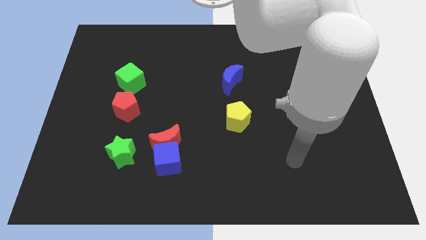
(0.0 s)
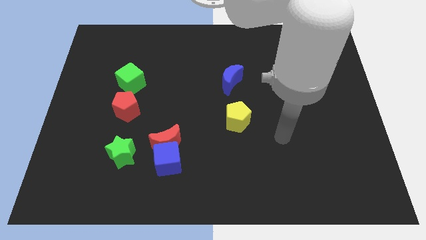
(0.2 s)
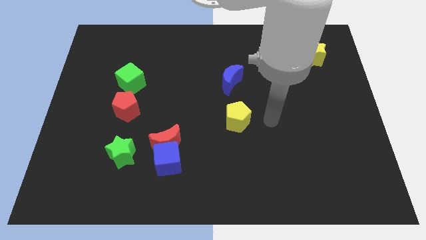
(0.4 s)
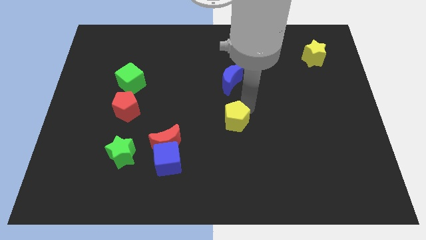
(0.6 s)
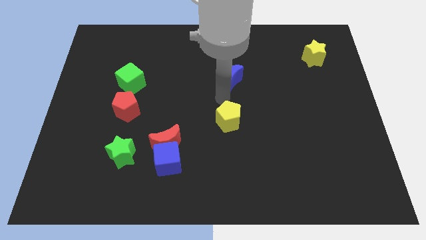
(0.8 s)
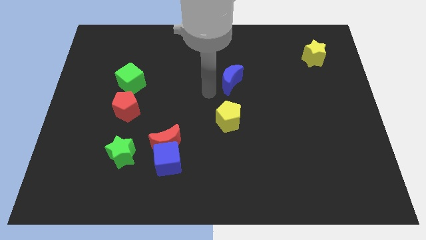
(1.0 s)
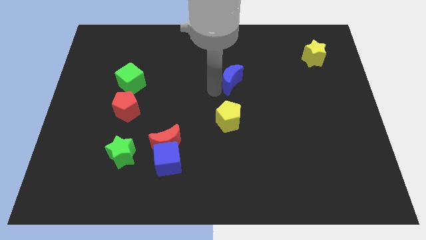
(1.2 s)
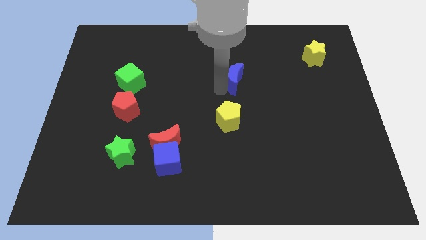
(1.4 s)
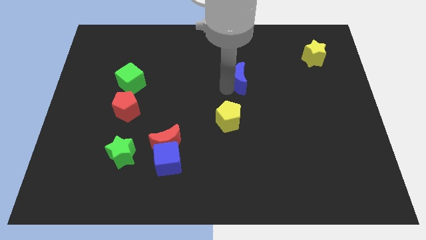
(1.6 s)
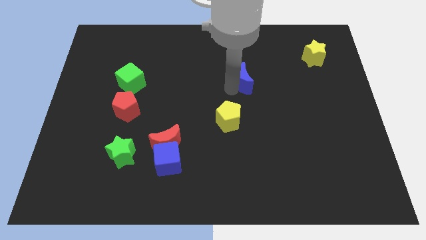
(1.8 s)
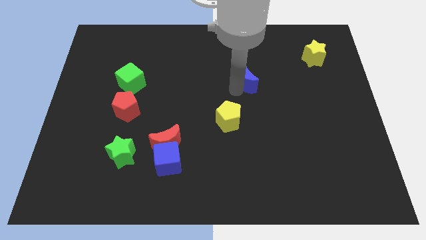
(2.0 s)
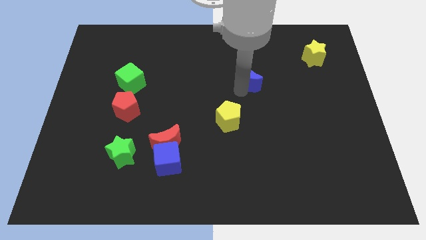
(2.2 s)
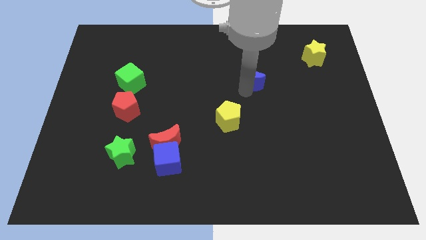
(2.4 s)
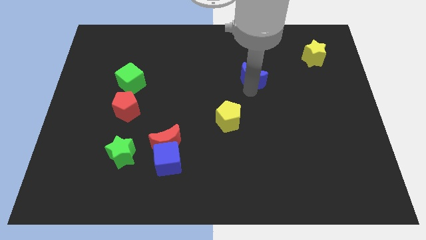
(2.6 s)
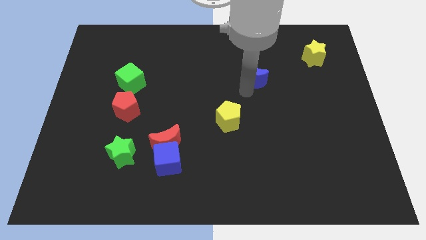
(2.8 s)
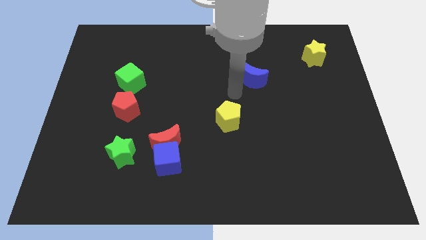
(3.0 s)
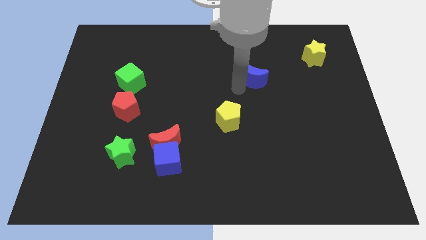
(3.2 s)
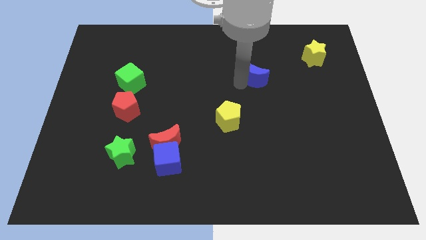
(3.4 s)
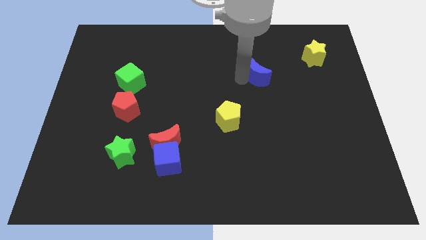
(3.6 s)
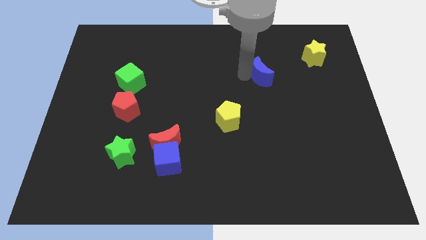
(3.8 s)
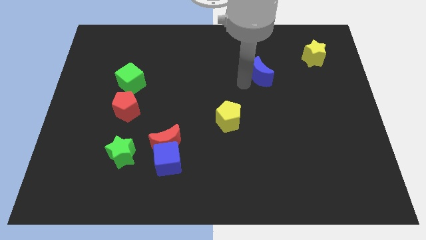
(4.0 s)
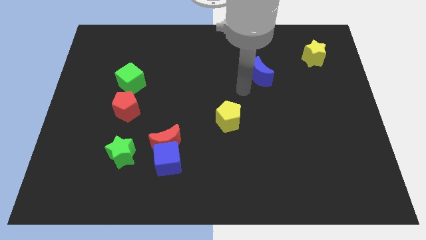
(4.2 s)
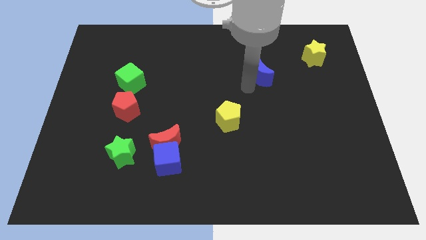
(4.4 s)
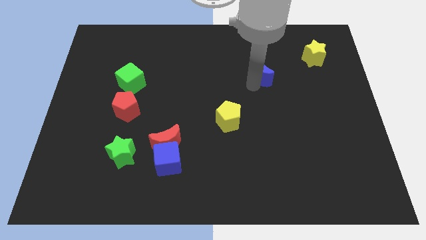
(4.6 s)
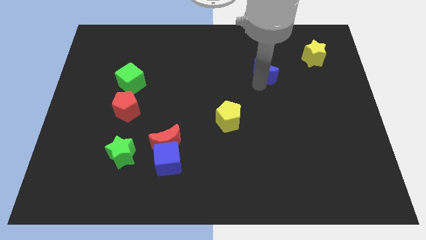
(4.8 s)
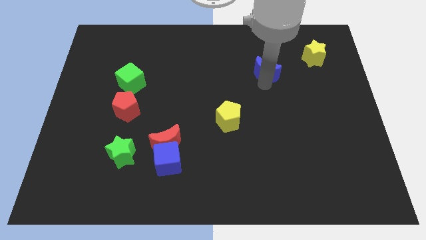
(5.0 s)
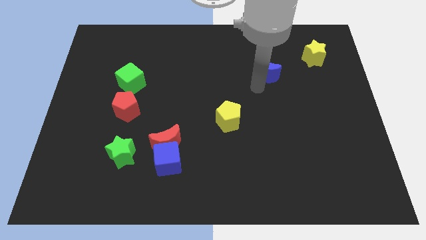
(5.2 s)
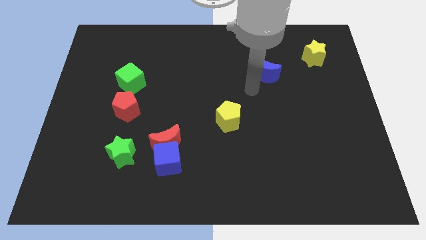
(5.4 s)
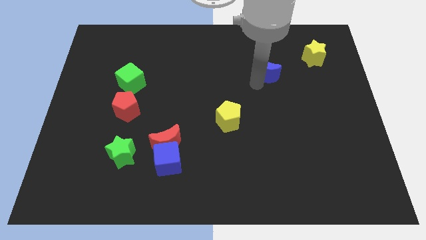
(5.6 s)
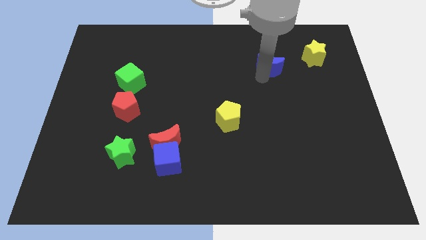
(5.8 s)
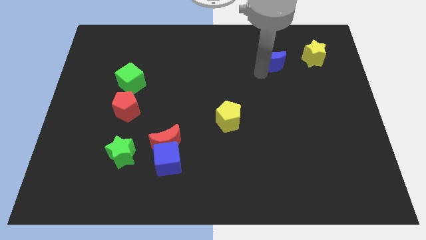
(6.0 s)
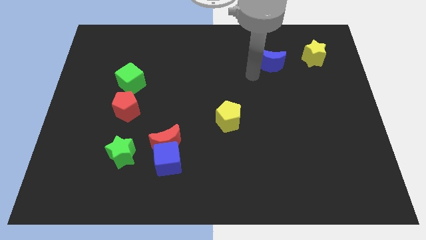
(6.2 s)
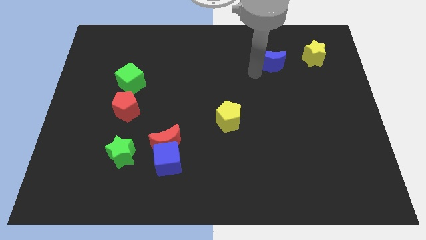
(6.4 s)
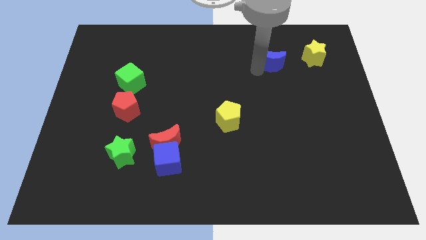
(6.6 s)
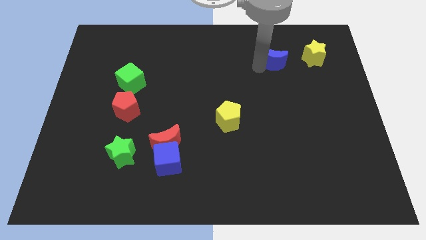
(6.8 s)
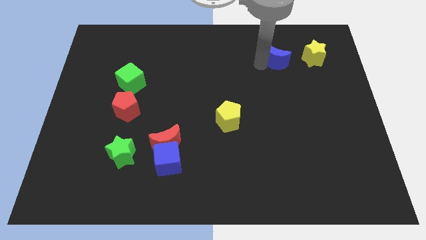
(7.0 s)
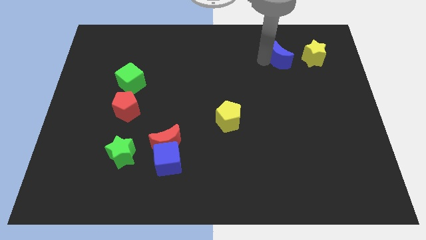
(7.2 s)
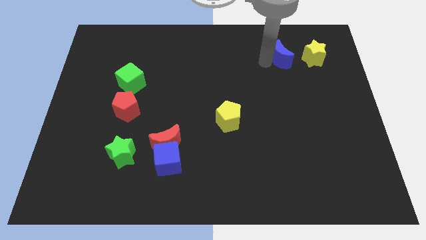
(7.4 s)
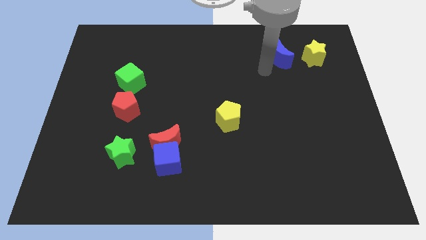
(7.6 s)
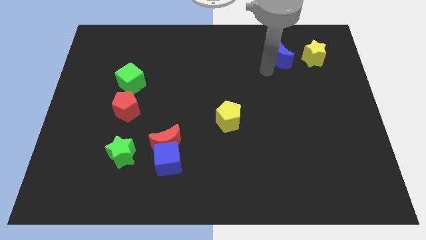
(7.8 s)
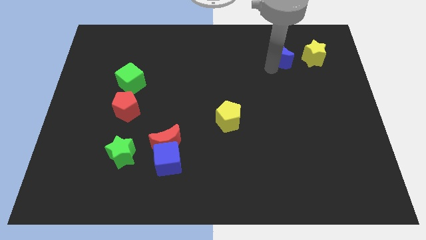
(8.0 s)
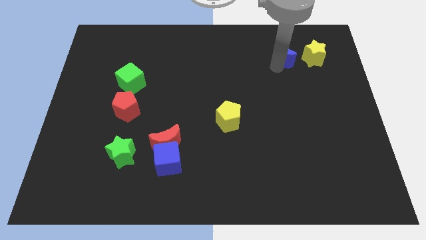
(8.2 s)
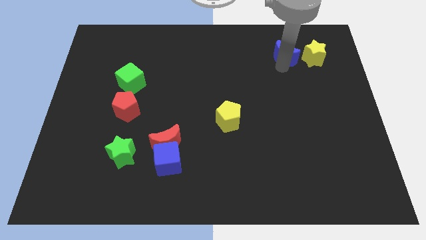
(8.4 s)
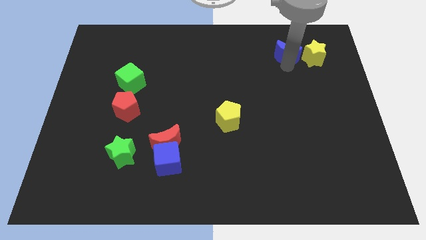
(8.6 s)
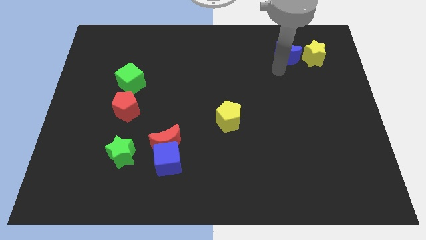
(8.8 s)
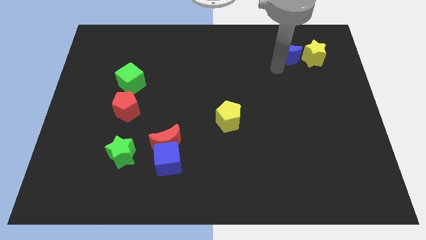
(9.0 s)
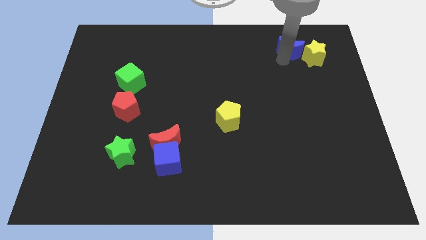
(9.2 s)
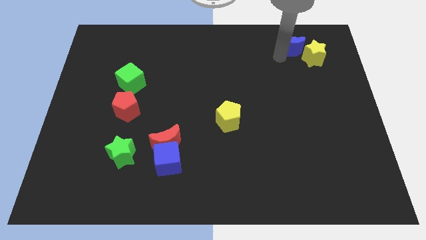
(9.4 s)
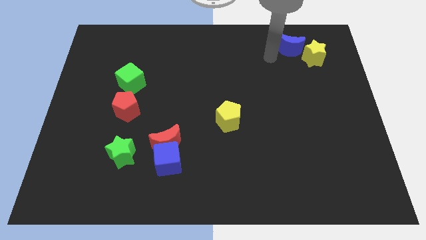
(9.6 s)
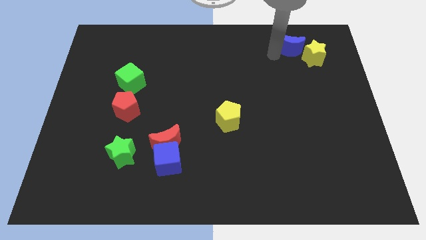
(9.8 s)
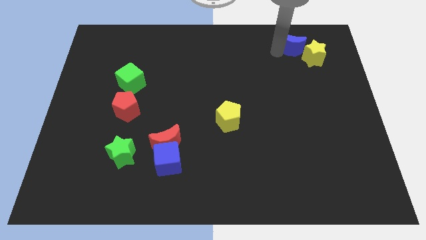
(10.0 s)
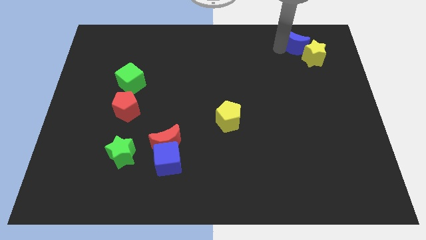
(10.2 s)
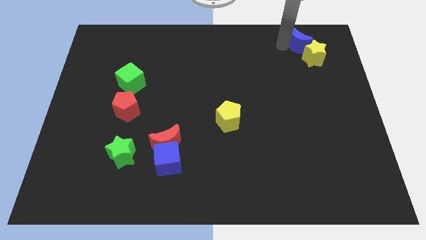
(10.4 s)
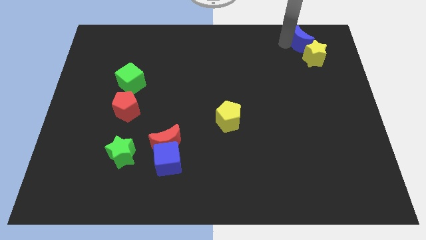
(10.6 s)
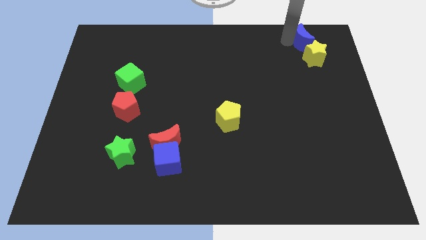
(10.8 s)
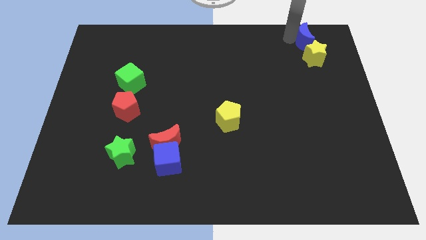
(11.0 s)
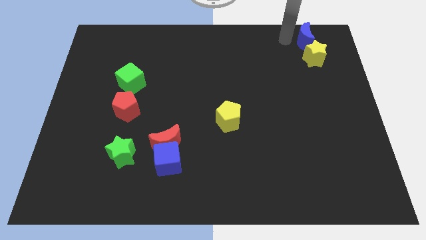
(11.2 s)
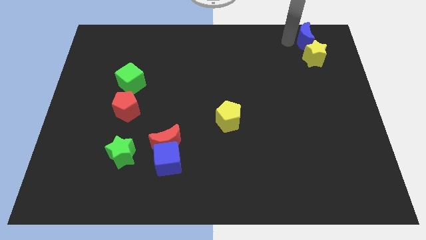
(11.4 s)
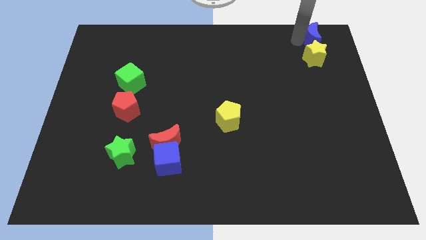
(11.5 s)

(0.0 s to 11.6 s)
move the blue moon to the top right of the board
